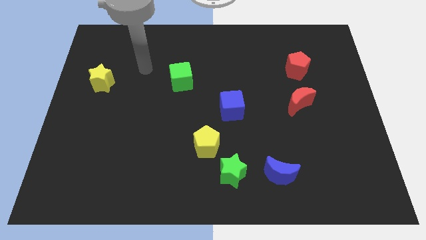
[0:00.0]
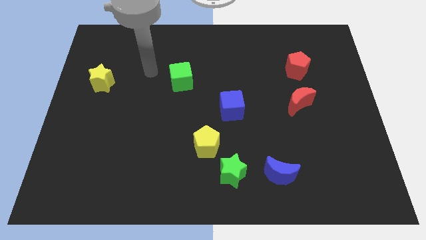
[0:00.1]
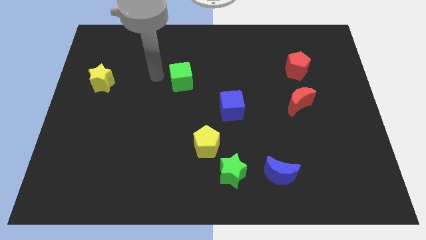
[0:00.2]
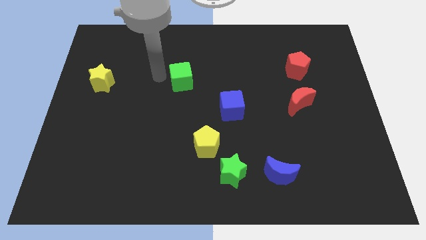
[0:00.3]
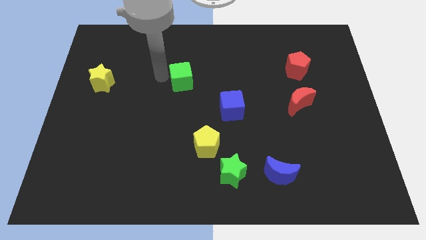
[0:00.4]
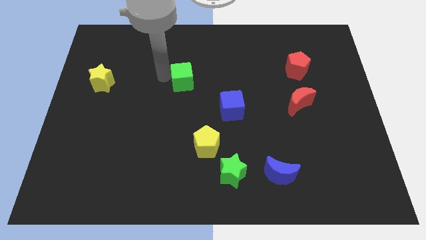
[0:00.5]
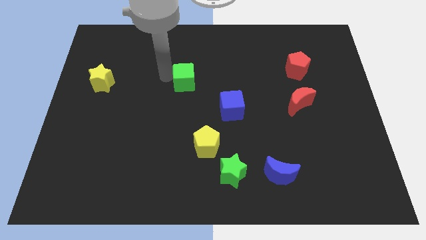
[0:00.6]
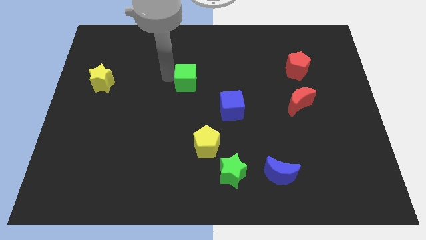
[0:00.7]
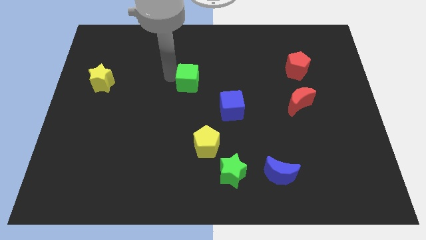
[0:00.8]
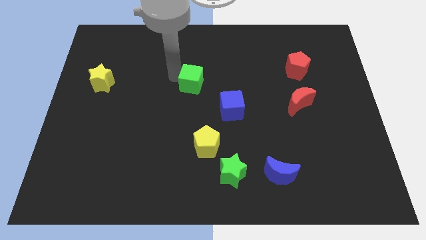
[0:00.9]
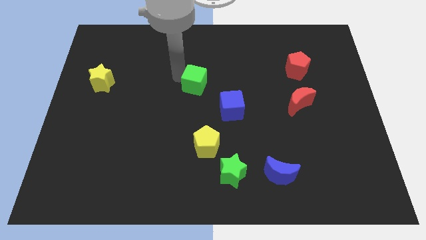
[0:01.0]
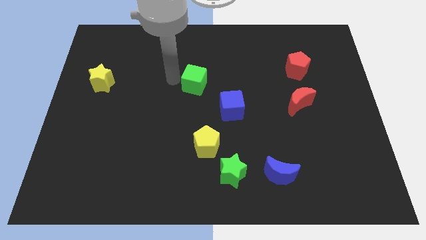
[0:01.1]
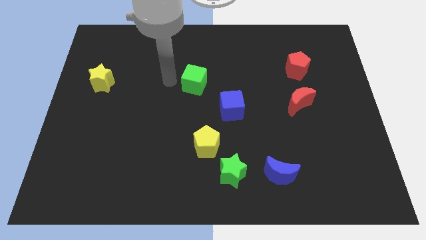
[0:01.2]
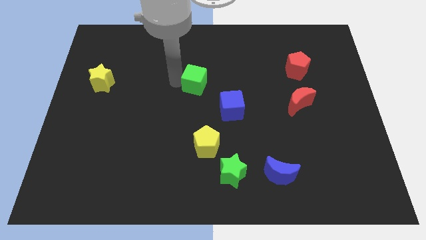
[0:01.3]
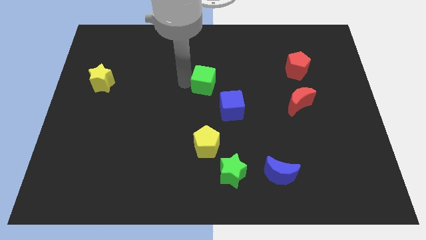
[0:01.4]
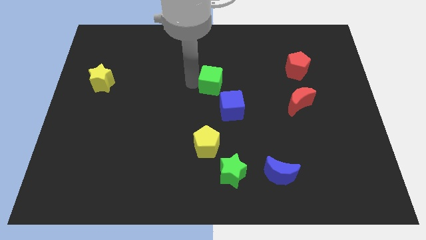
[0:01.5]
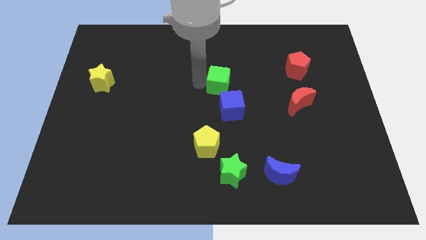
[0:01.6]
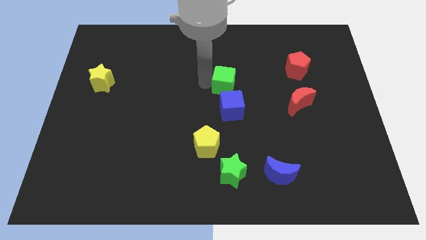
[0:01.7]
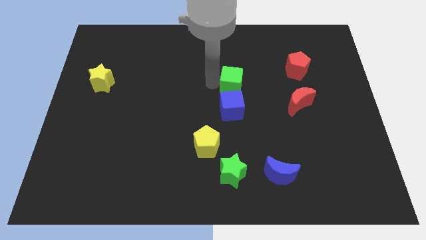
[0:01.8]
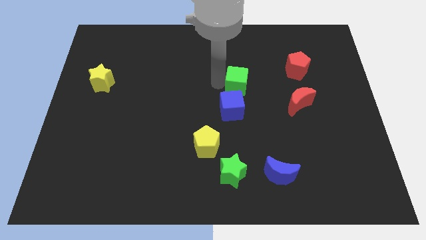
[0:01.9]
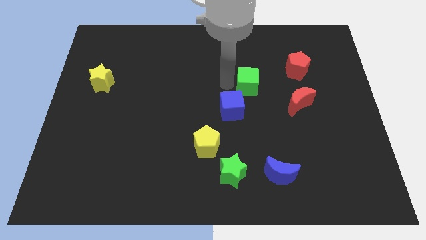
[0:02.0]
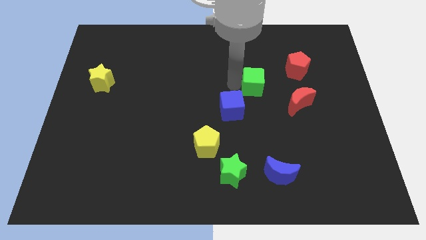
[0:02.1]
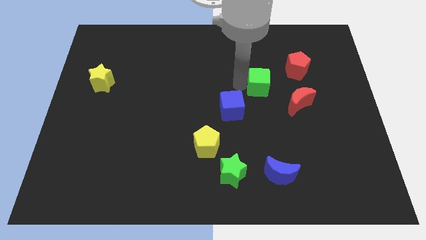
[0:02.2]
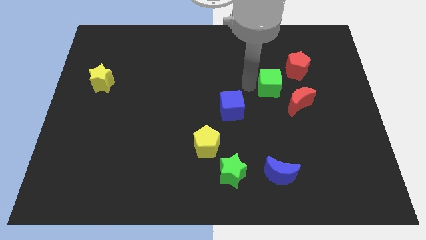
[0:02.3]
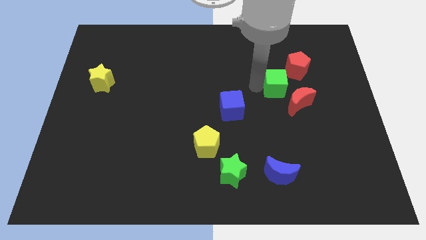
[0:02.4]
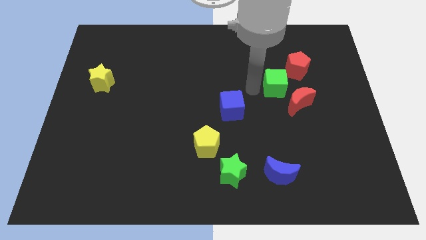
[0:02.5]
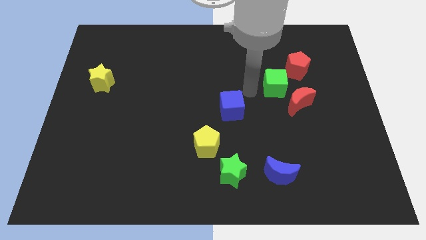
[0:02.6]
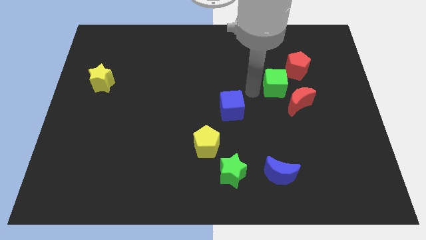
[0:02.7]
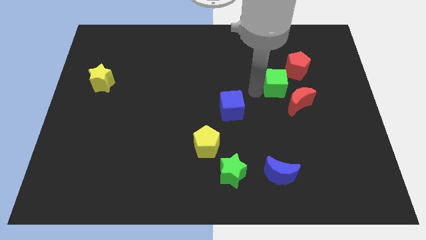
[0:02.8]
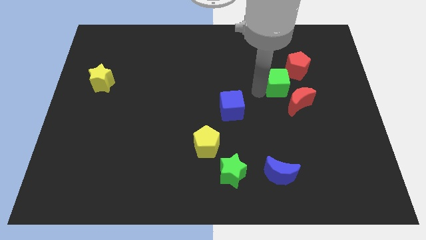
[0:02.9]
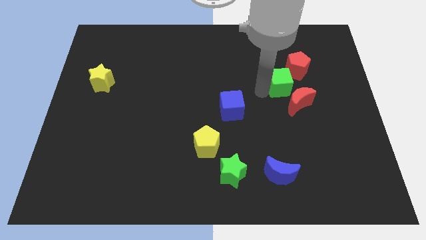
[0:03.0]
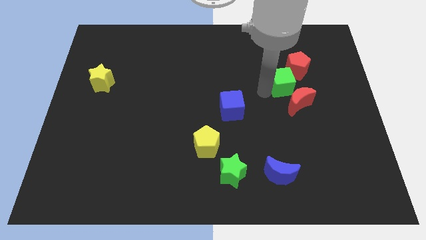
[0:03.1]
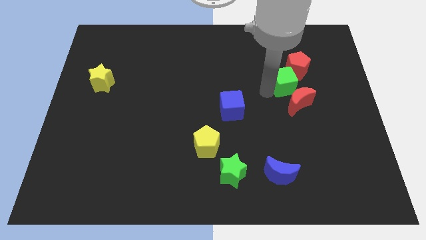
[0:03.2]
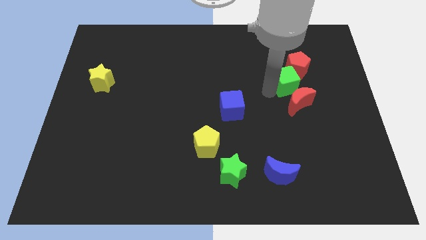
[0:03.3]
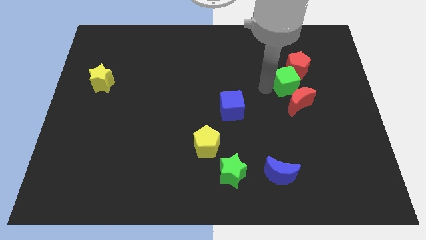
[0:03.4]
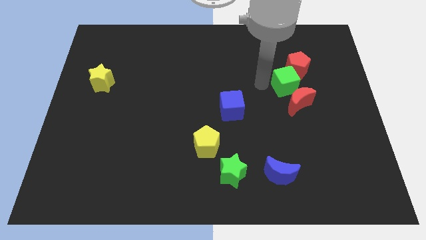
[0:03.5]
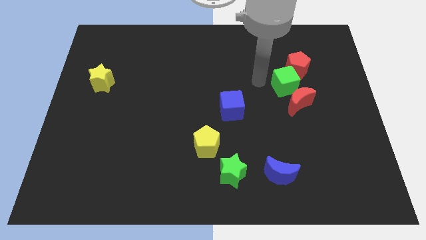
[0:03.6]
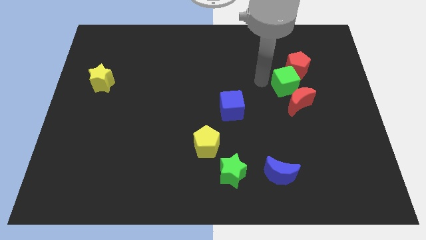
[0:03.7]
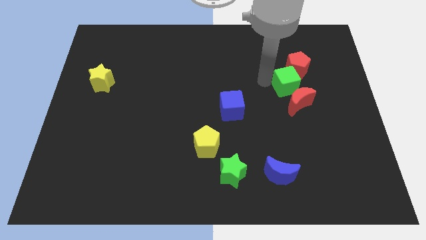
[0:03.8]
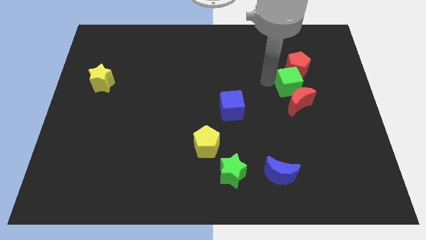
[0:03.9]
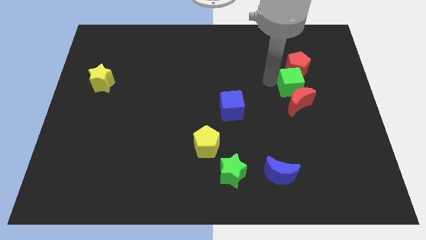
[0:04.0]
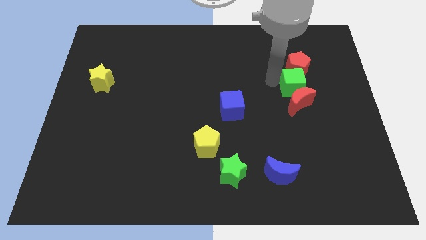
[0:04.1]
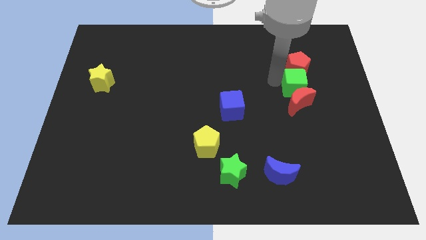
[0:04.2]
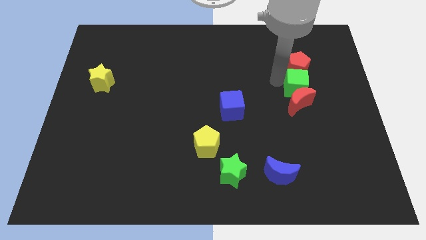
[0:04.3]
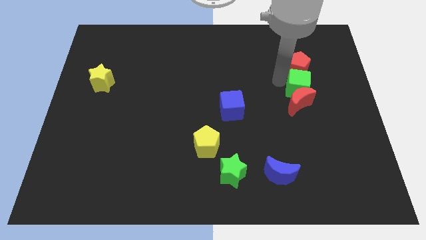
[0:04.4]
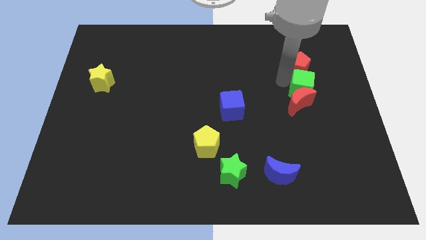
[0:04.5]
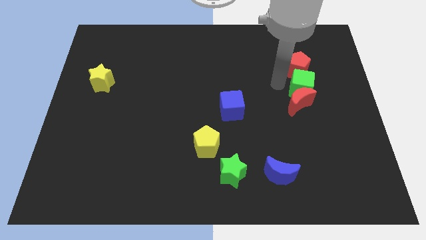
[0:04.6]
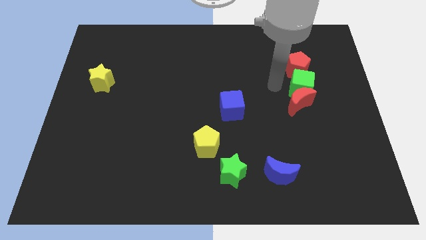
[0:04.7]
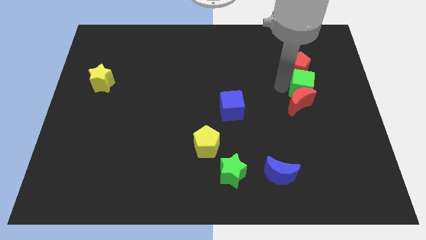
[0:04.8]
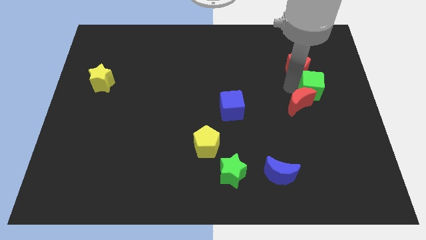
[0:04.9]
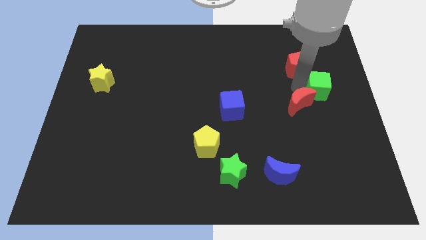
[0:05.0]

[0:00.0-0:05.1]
put the green cube to the center right

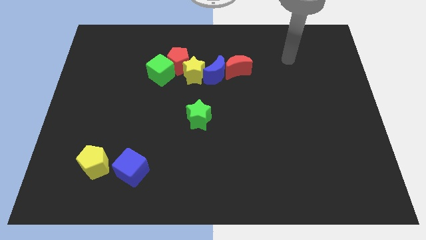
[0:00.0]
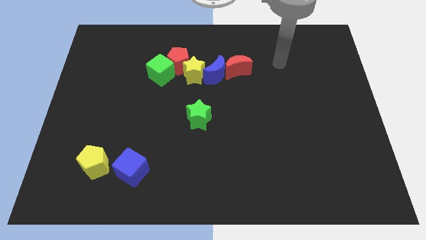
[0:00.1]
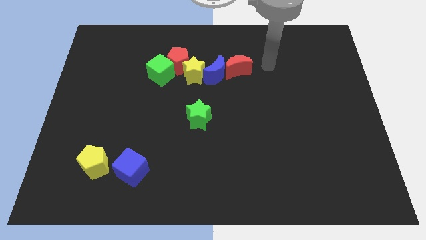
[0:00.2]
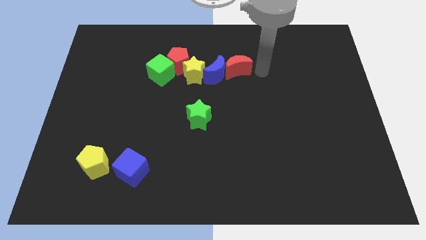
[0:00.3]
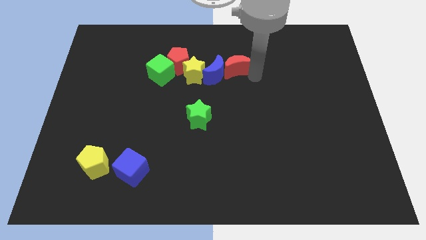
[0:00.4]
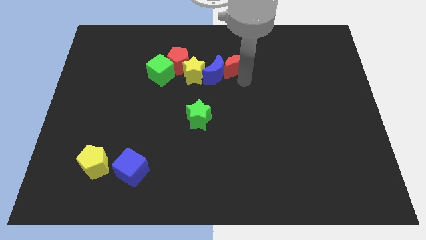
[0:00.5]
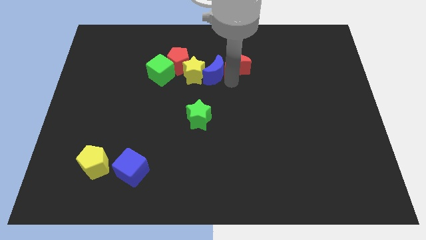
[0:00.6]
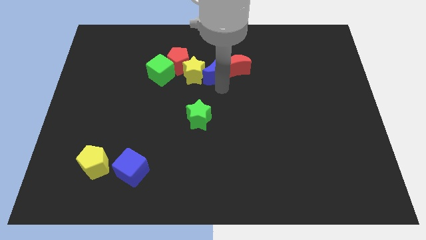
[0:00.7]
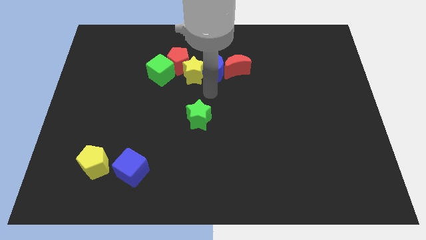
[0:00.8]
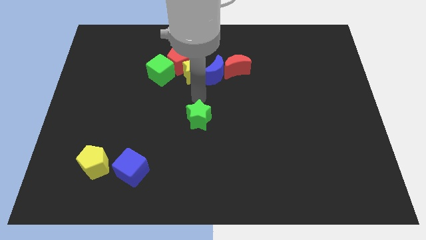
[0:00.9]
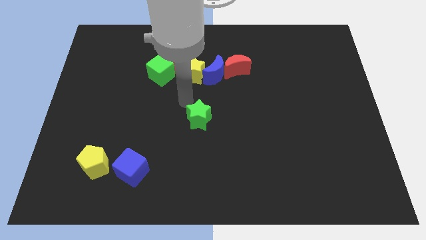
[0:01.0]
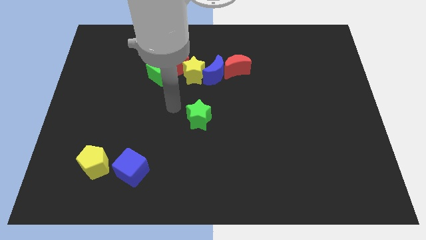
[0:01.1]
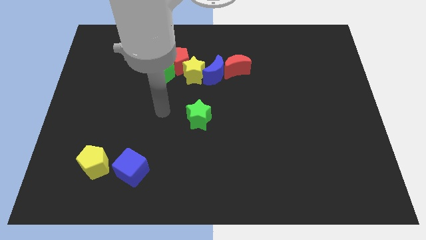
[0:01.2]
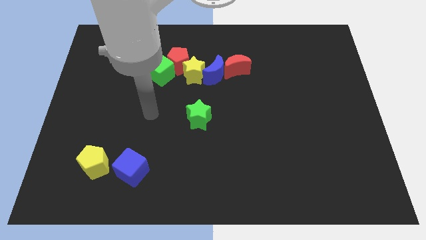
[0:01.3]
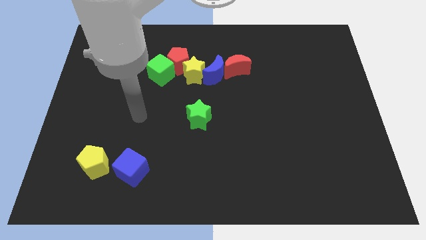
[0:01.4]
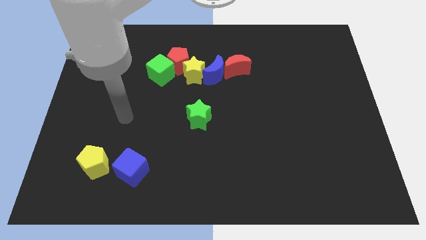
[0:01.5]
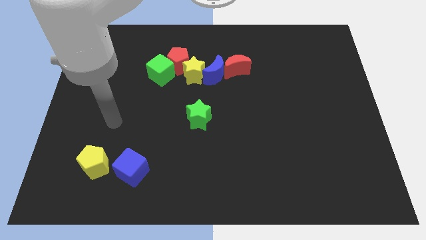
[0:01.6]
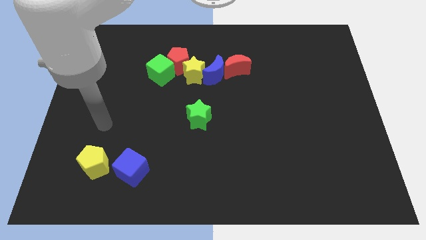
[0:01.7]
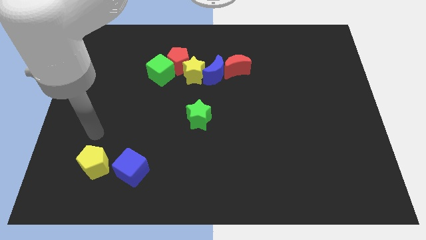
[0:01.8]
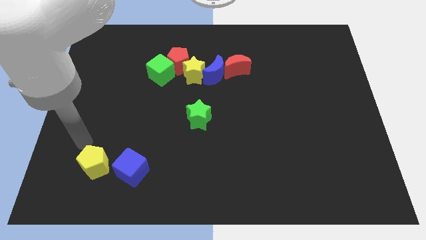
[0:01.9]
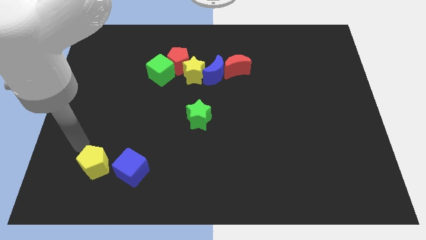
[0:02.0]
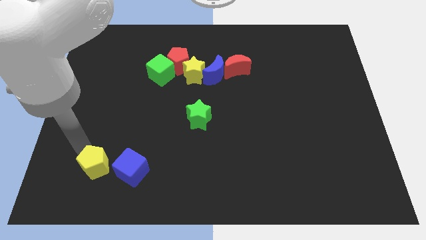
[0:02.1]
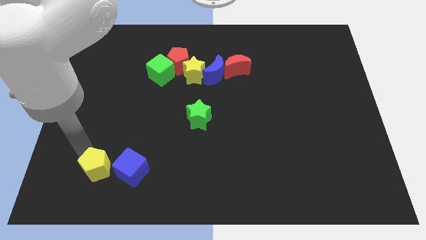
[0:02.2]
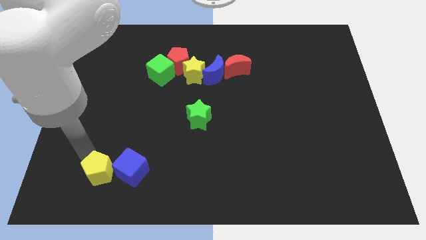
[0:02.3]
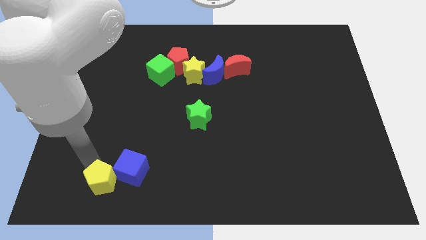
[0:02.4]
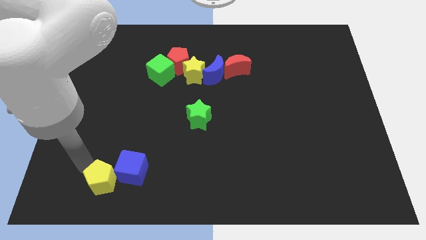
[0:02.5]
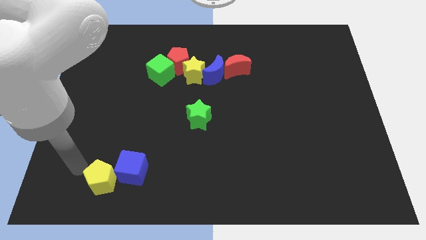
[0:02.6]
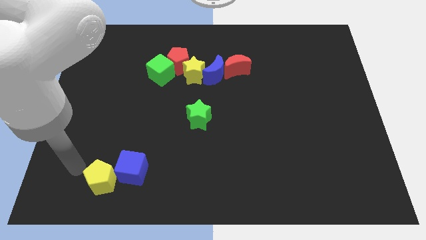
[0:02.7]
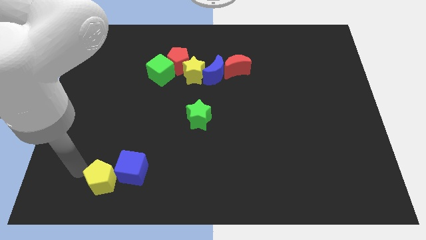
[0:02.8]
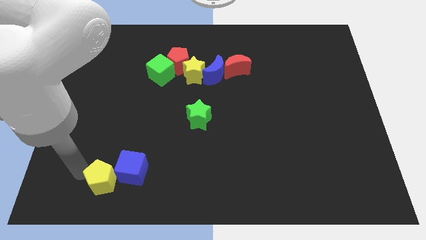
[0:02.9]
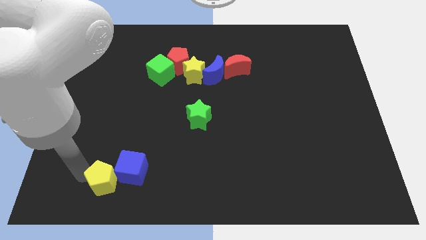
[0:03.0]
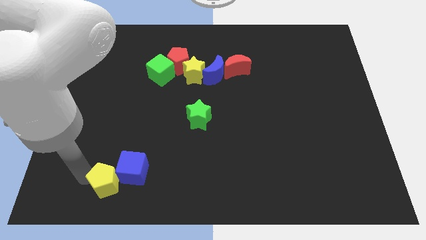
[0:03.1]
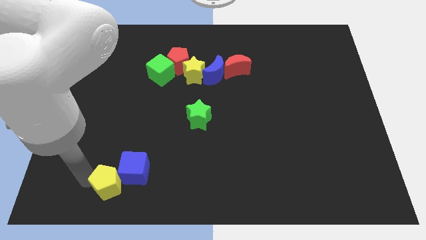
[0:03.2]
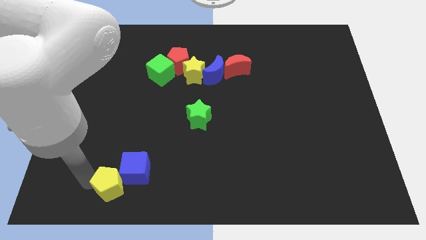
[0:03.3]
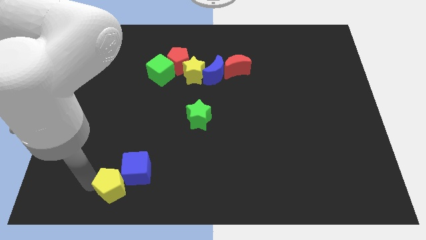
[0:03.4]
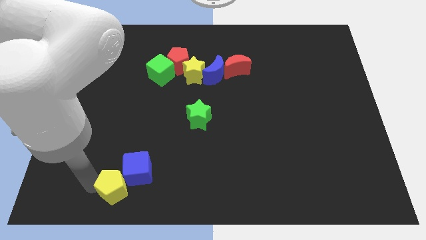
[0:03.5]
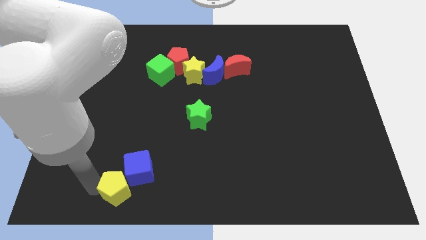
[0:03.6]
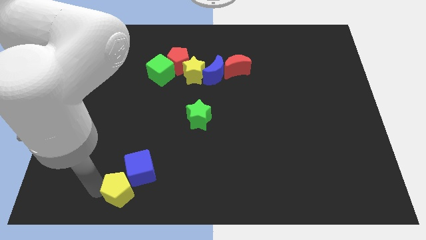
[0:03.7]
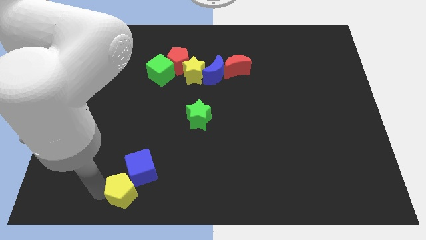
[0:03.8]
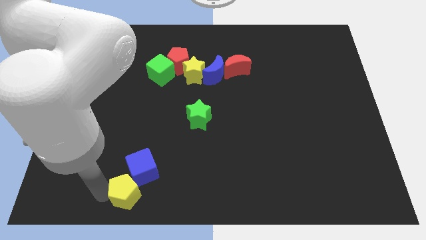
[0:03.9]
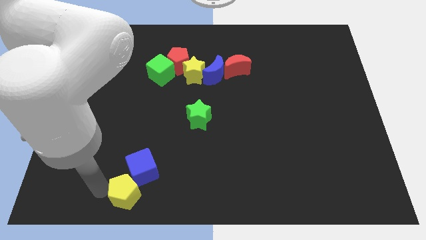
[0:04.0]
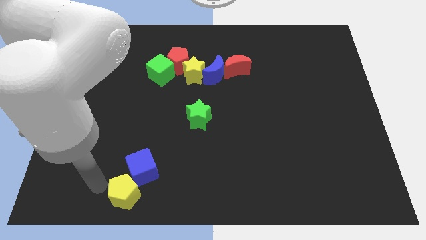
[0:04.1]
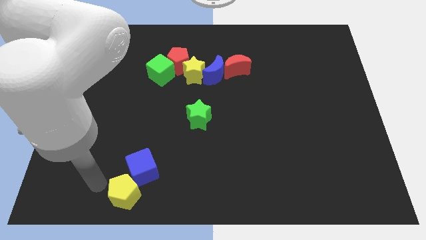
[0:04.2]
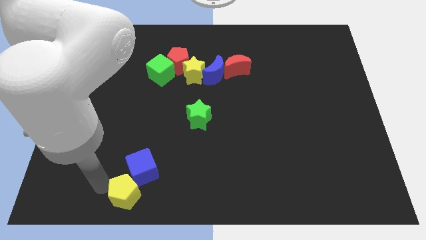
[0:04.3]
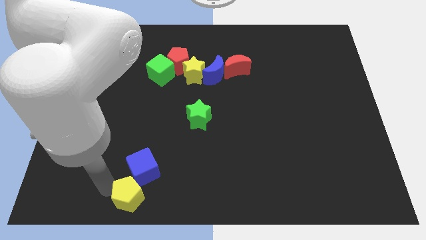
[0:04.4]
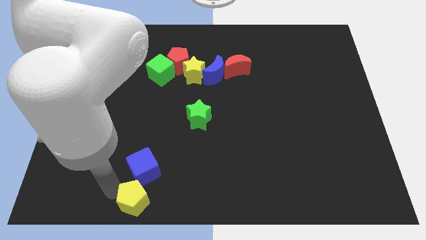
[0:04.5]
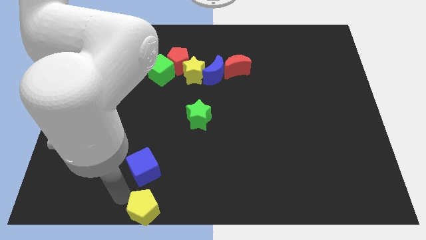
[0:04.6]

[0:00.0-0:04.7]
push the yellow pentagon to the bottom
